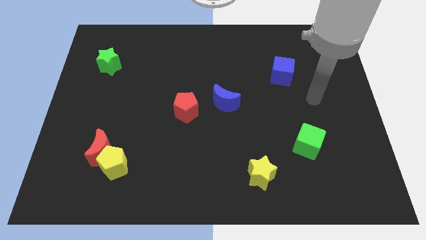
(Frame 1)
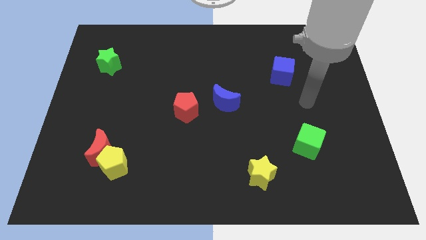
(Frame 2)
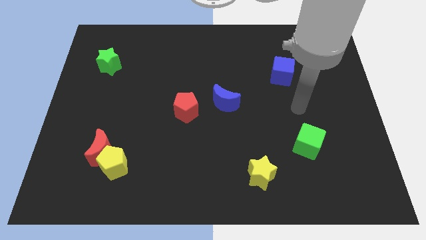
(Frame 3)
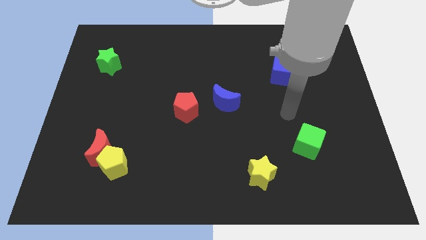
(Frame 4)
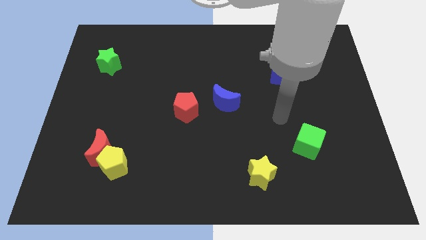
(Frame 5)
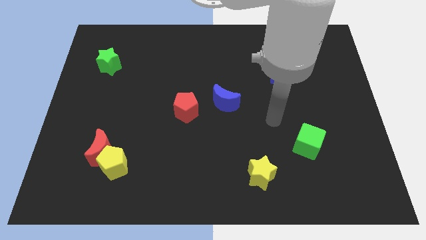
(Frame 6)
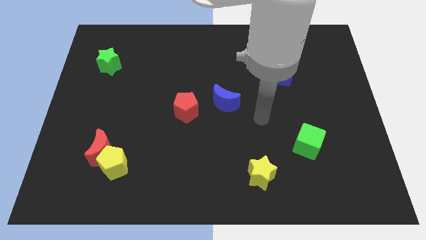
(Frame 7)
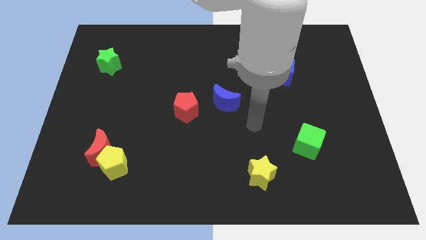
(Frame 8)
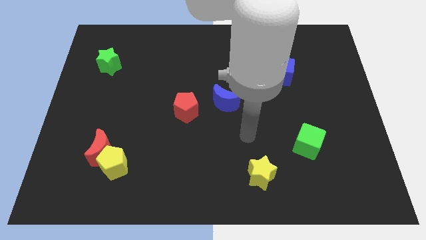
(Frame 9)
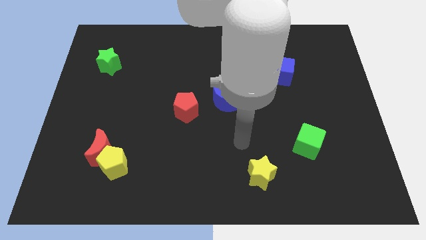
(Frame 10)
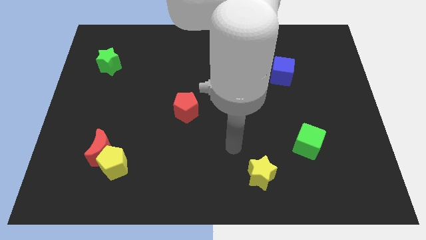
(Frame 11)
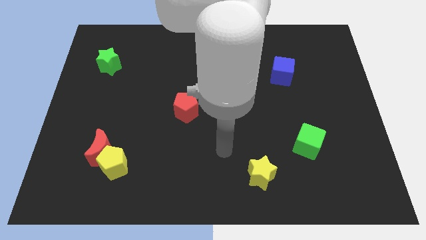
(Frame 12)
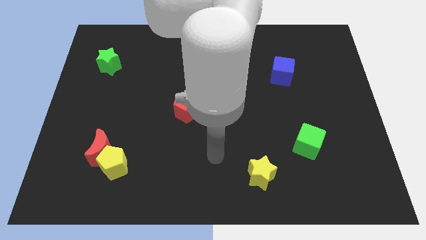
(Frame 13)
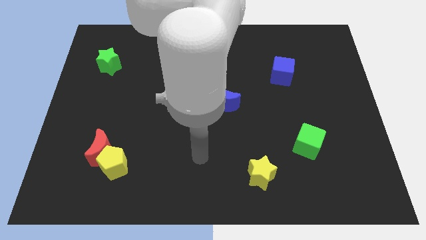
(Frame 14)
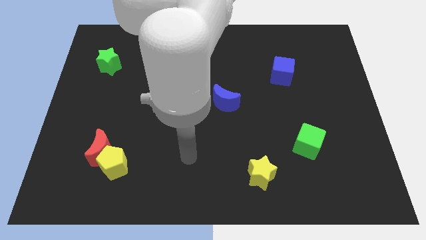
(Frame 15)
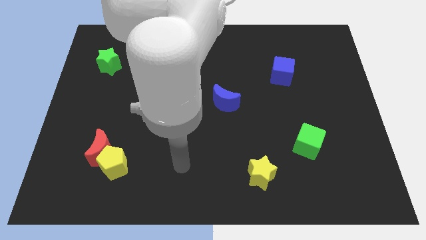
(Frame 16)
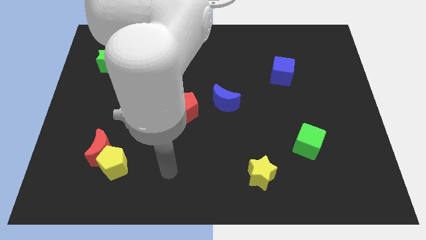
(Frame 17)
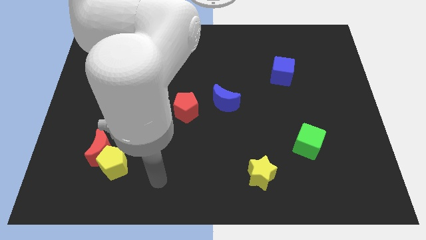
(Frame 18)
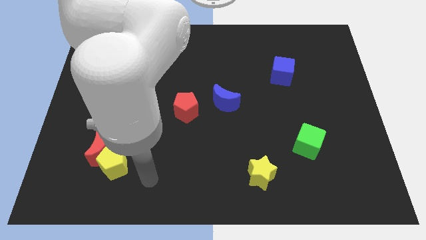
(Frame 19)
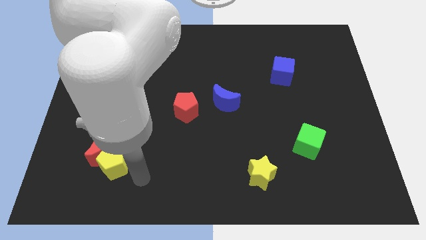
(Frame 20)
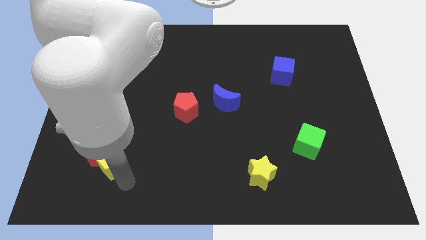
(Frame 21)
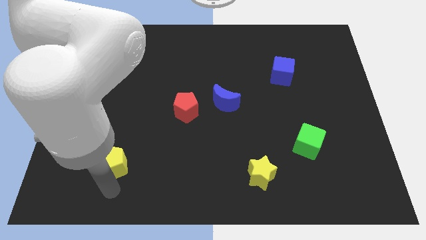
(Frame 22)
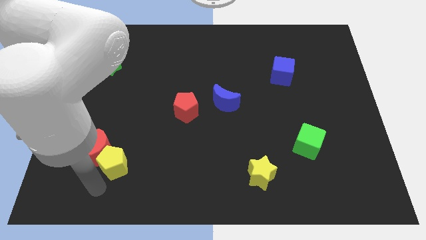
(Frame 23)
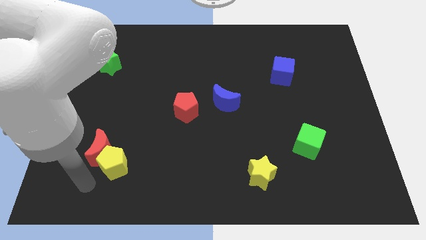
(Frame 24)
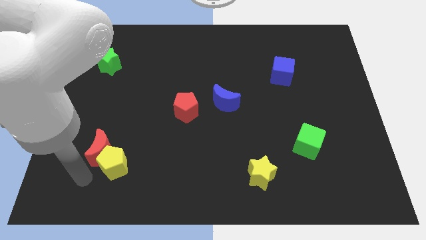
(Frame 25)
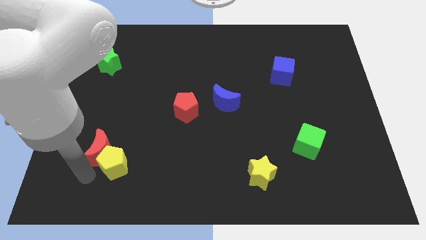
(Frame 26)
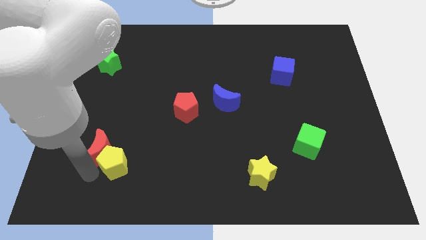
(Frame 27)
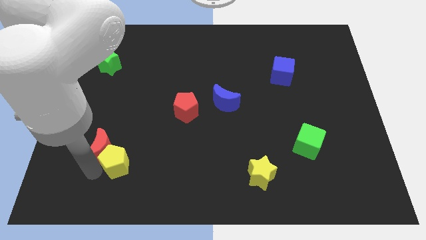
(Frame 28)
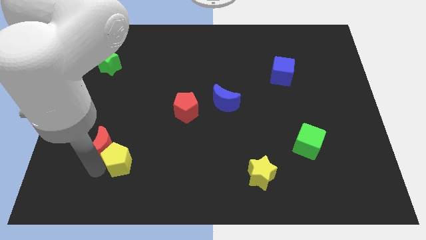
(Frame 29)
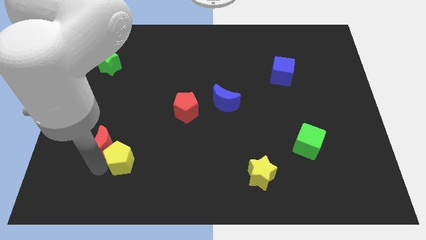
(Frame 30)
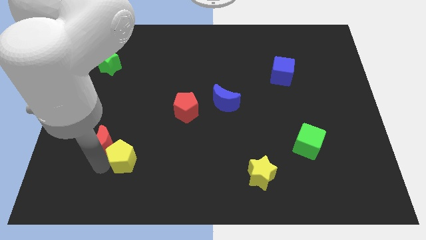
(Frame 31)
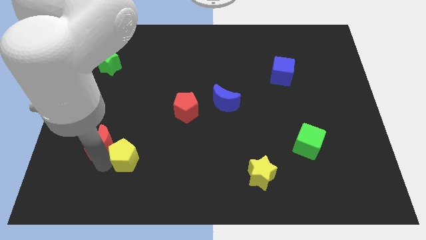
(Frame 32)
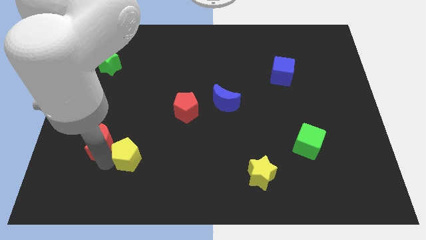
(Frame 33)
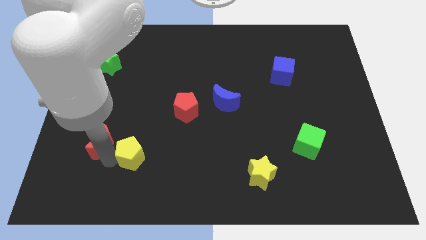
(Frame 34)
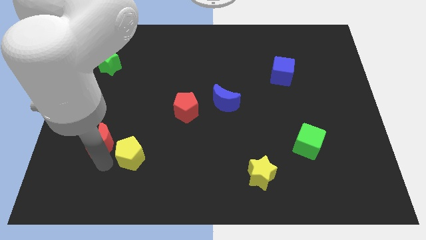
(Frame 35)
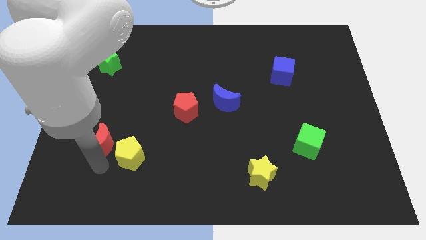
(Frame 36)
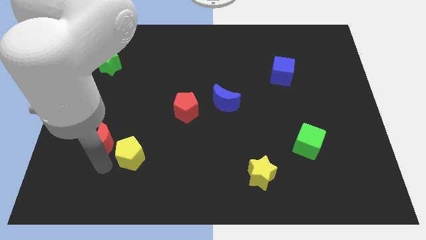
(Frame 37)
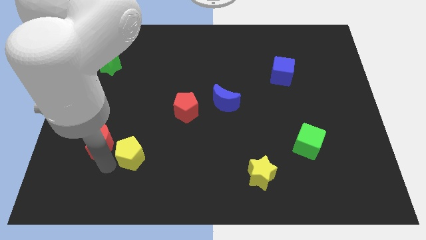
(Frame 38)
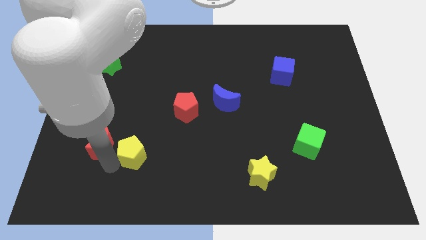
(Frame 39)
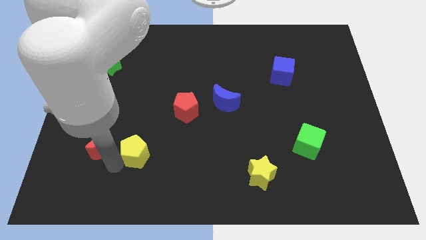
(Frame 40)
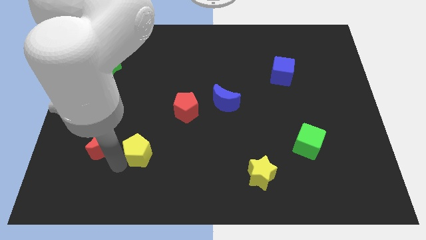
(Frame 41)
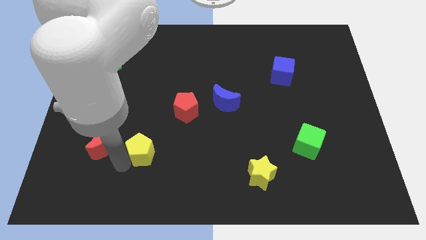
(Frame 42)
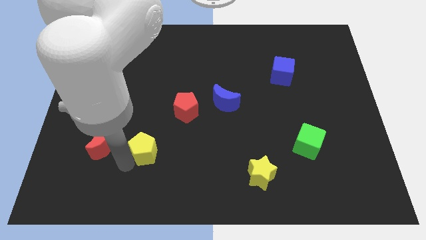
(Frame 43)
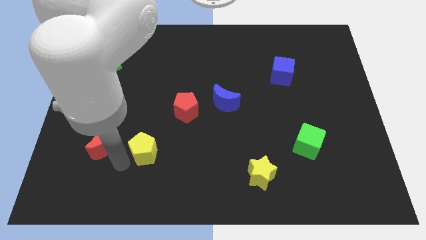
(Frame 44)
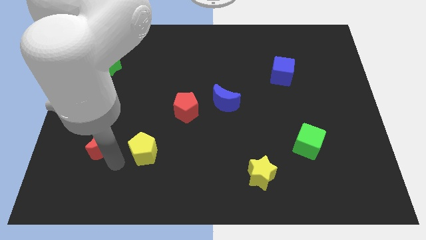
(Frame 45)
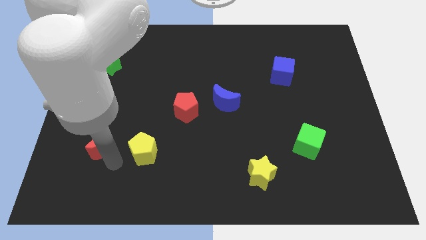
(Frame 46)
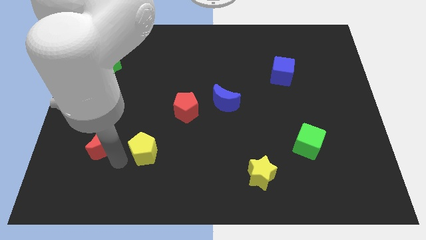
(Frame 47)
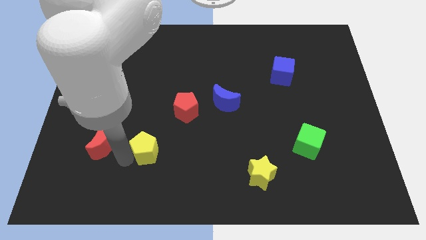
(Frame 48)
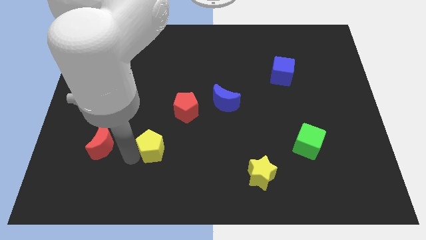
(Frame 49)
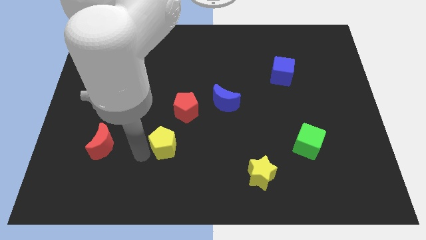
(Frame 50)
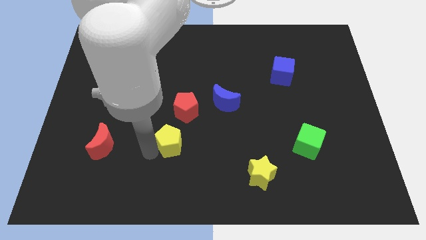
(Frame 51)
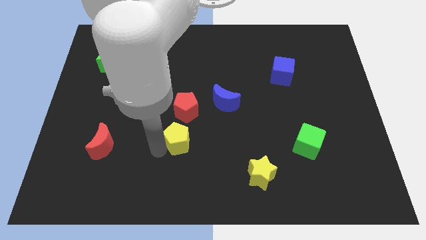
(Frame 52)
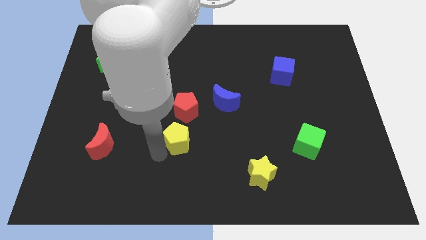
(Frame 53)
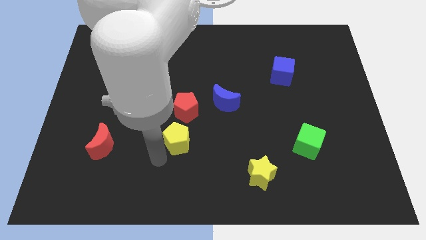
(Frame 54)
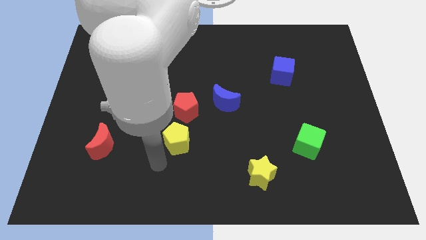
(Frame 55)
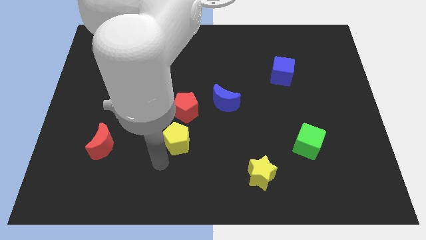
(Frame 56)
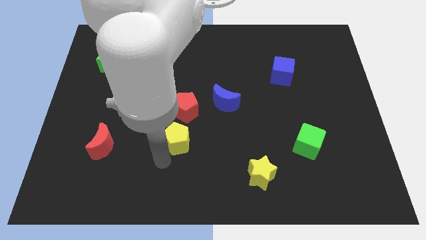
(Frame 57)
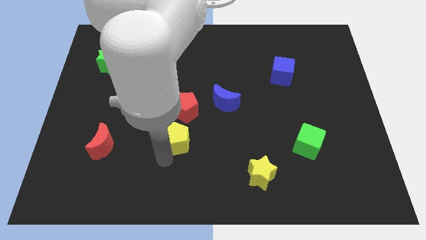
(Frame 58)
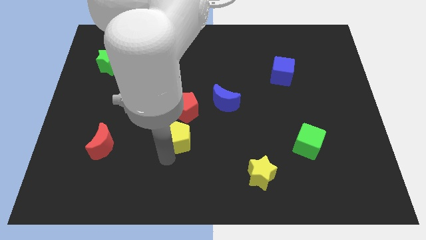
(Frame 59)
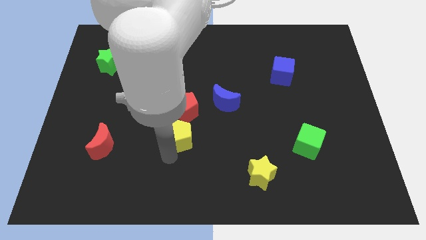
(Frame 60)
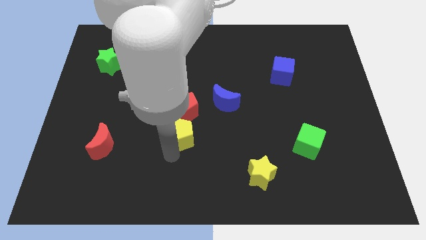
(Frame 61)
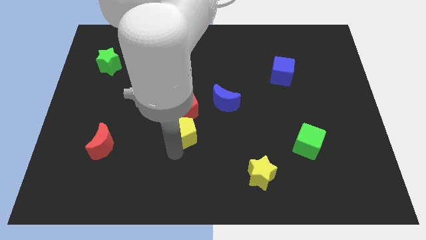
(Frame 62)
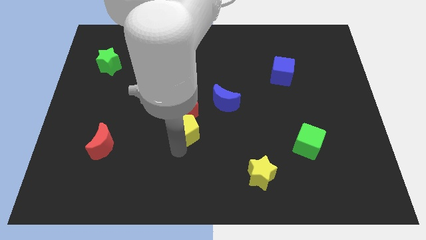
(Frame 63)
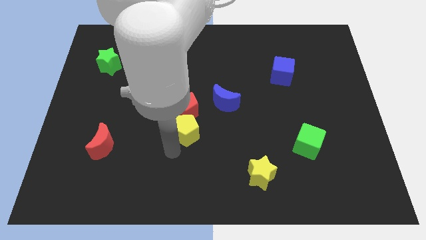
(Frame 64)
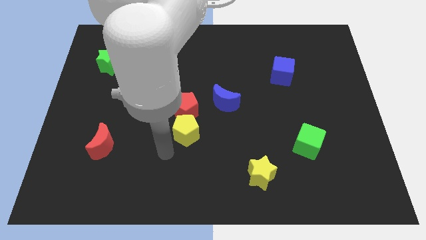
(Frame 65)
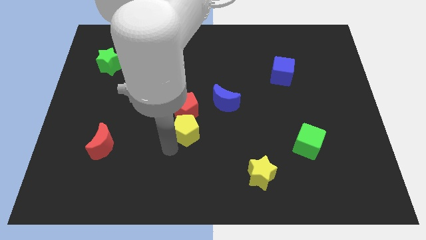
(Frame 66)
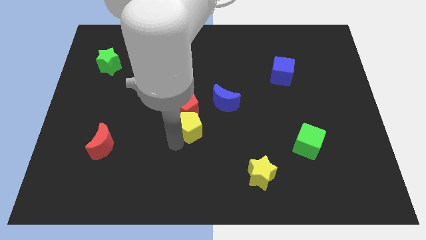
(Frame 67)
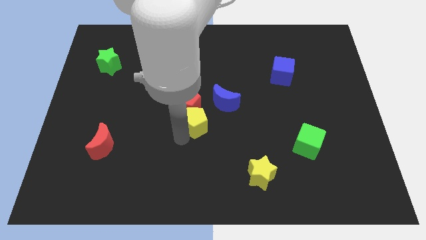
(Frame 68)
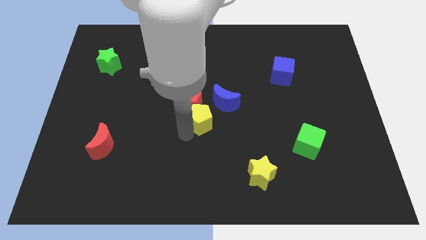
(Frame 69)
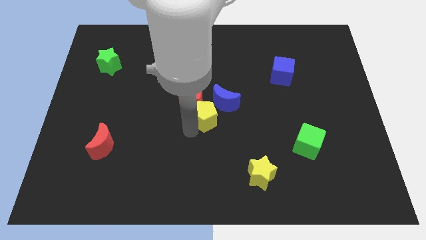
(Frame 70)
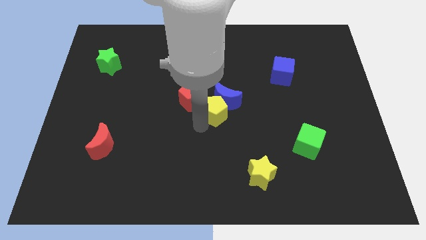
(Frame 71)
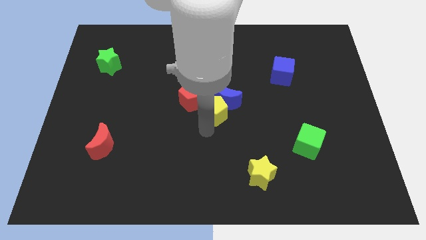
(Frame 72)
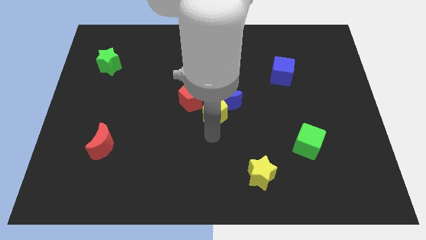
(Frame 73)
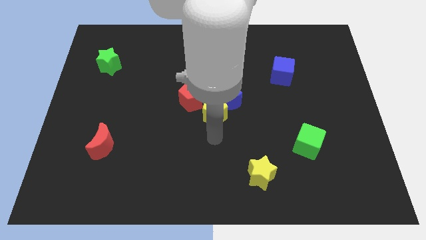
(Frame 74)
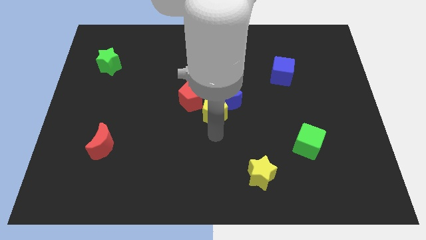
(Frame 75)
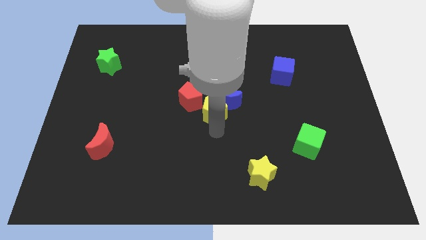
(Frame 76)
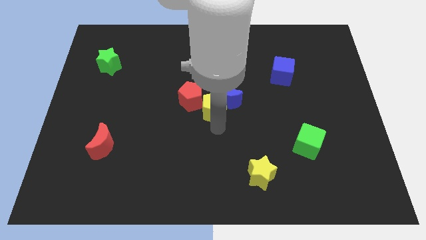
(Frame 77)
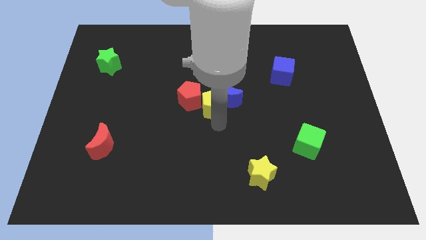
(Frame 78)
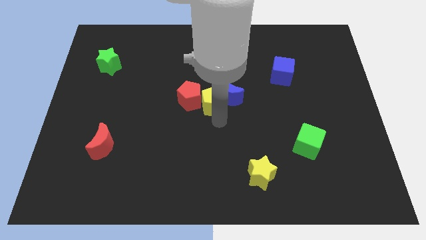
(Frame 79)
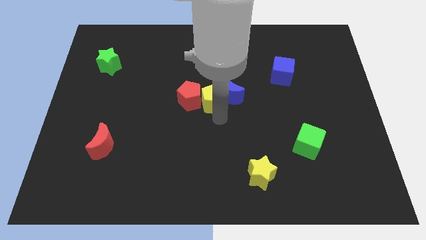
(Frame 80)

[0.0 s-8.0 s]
push the yellow pentagon diagonally up and to the right of the red pentagon
